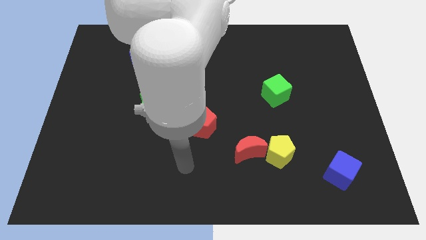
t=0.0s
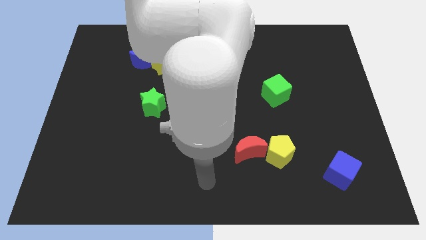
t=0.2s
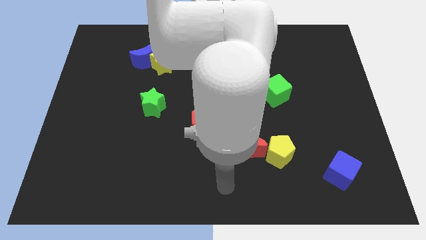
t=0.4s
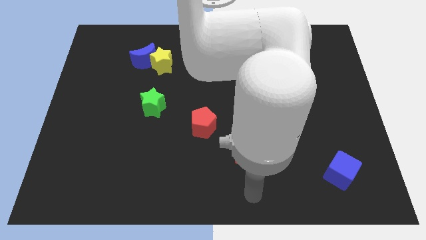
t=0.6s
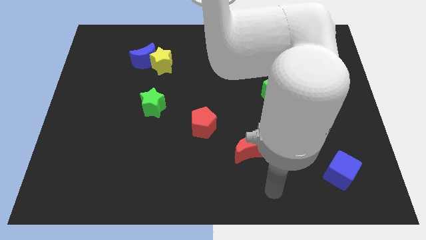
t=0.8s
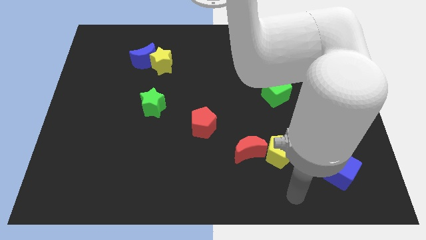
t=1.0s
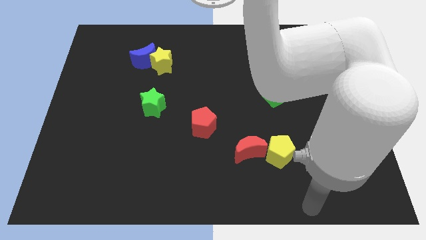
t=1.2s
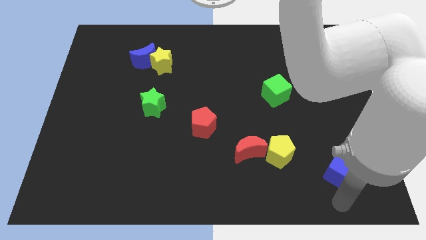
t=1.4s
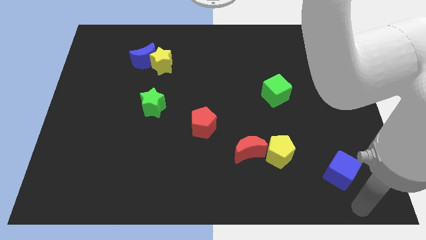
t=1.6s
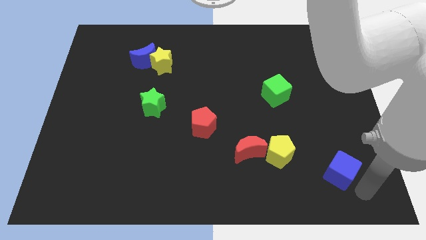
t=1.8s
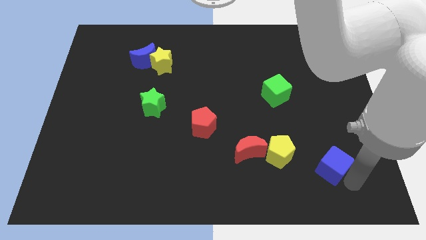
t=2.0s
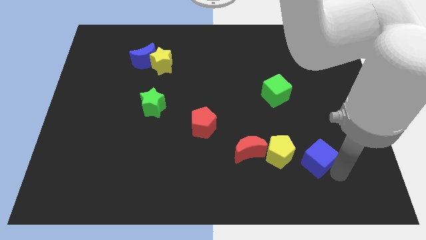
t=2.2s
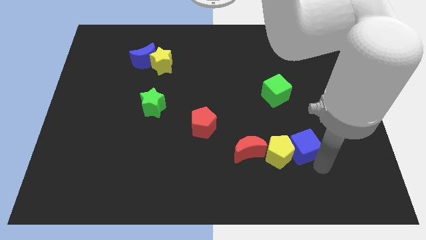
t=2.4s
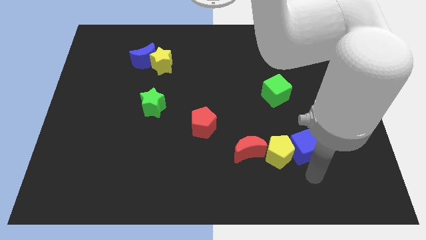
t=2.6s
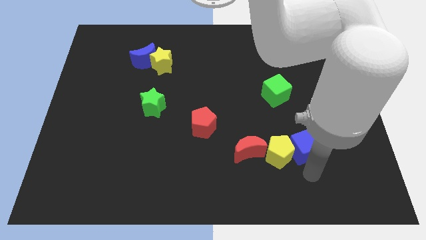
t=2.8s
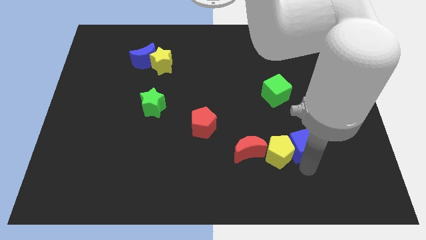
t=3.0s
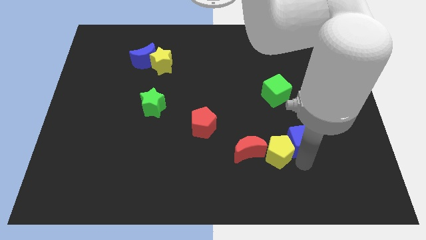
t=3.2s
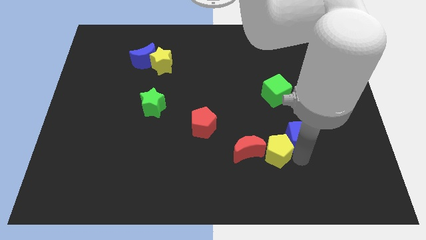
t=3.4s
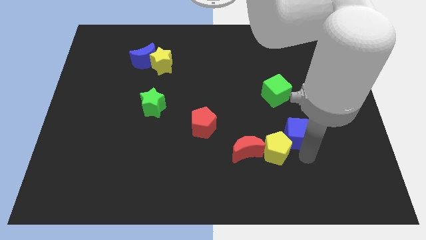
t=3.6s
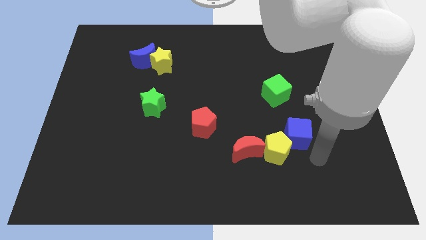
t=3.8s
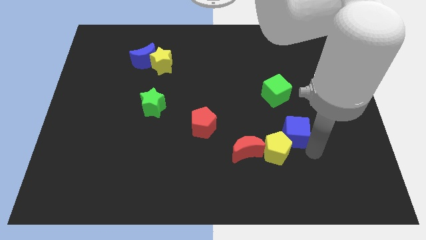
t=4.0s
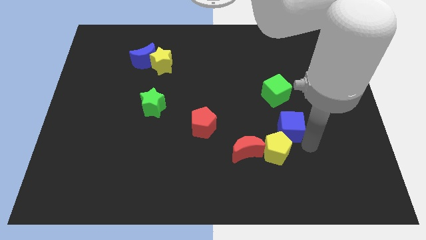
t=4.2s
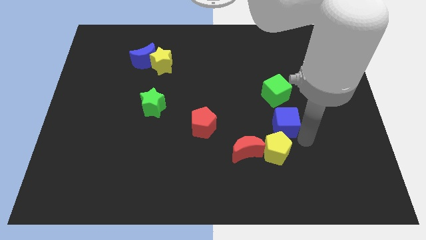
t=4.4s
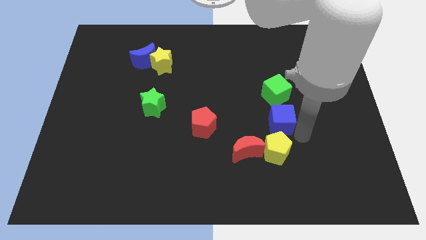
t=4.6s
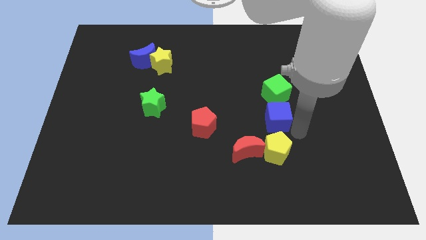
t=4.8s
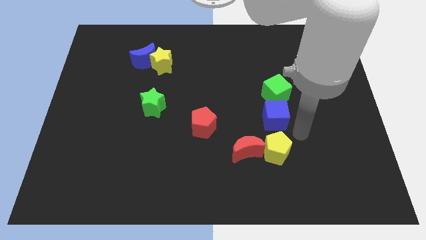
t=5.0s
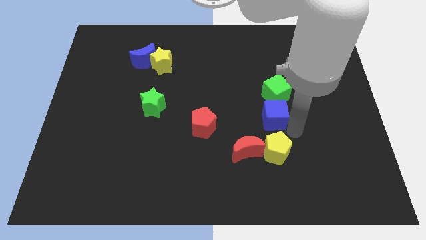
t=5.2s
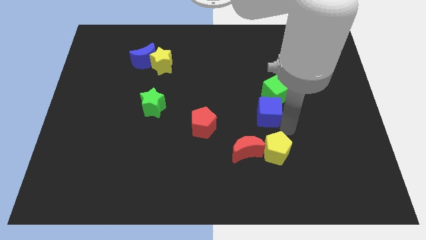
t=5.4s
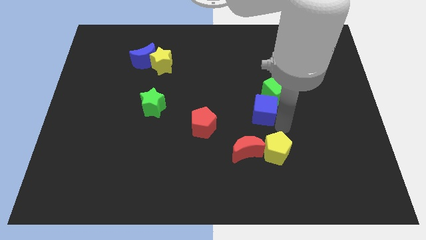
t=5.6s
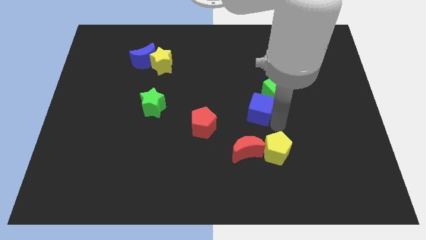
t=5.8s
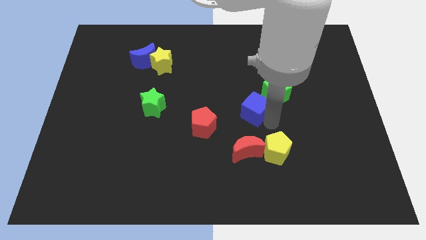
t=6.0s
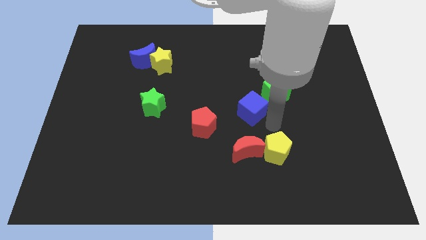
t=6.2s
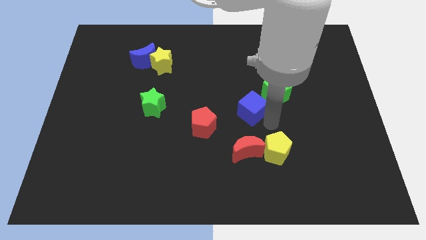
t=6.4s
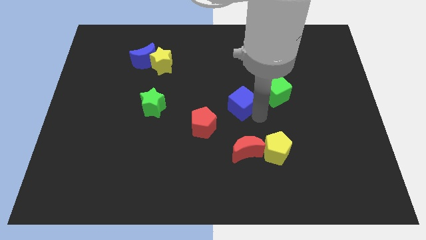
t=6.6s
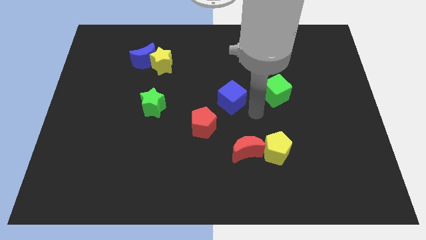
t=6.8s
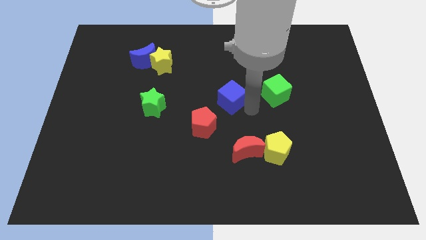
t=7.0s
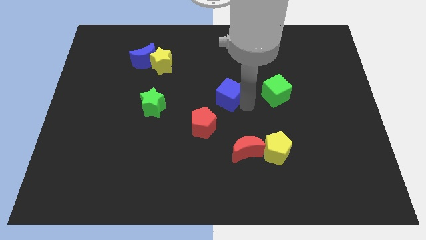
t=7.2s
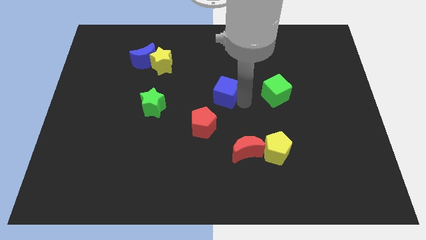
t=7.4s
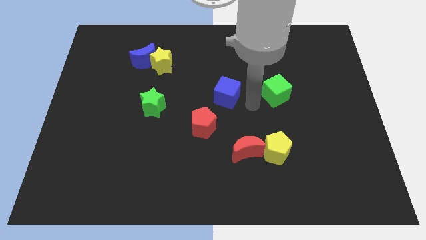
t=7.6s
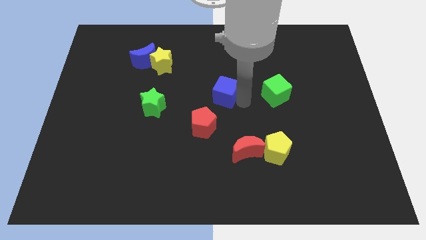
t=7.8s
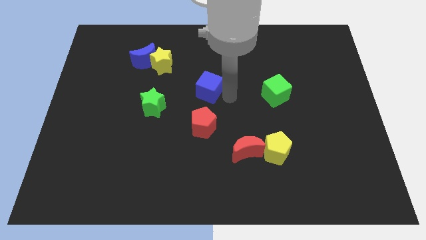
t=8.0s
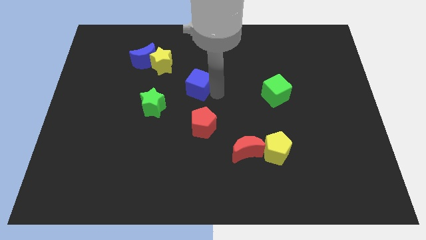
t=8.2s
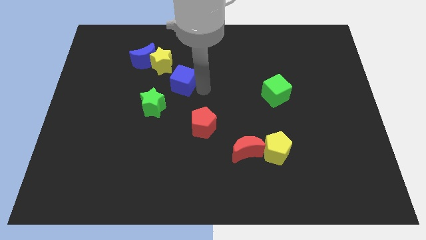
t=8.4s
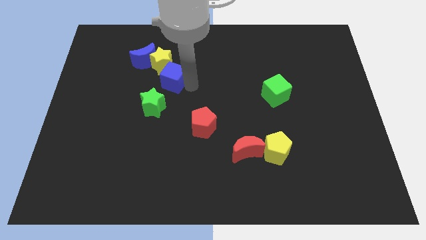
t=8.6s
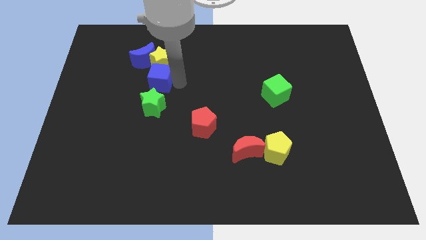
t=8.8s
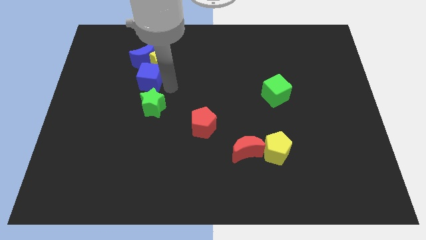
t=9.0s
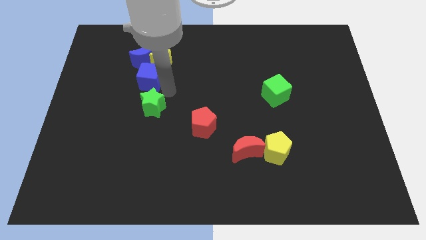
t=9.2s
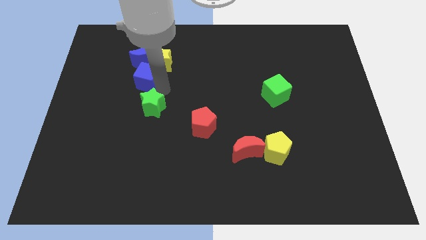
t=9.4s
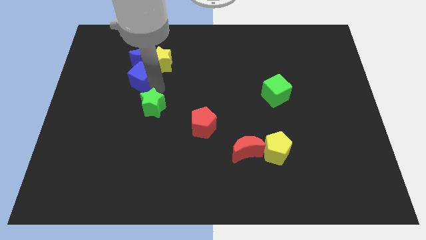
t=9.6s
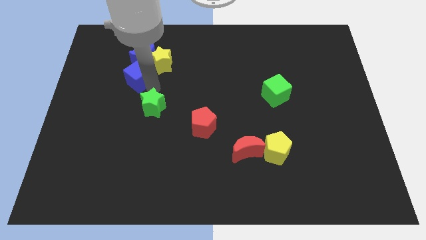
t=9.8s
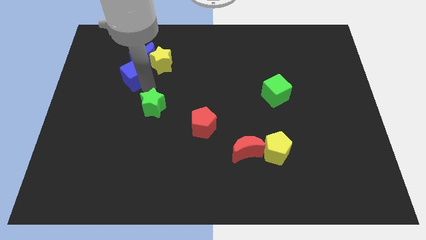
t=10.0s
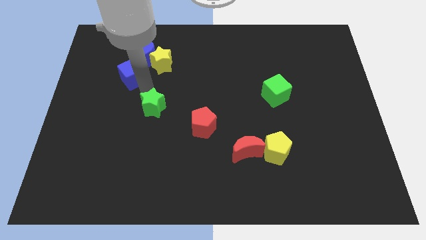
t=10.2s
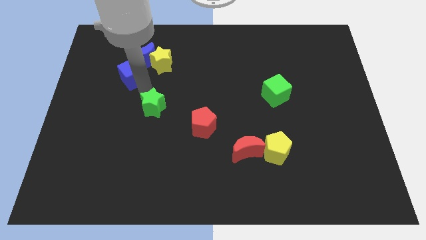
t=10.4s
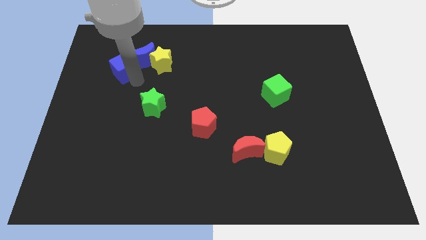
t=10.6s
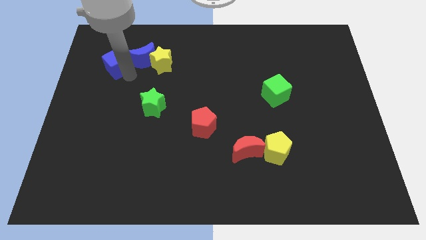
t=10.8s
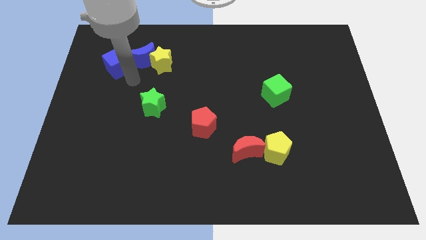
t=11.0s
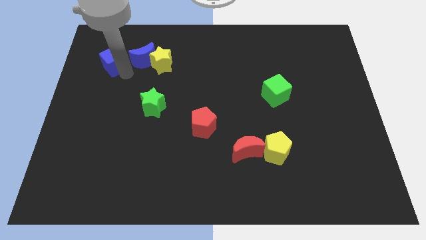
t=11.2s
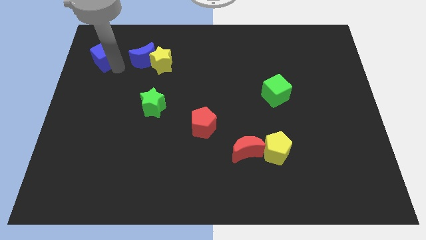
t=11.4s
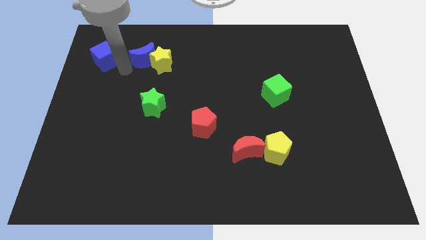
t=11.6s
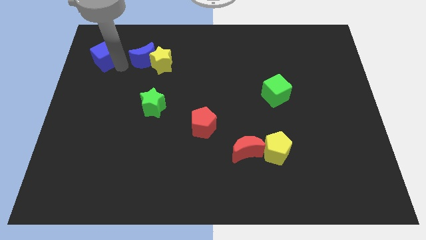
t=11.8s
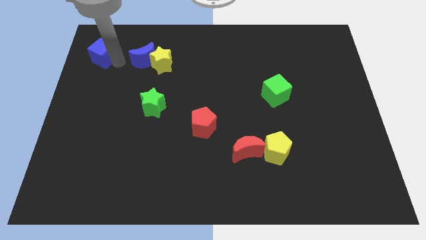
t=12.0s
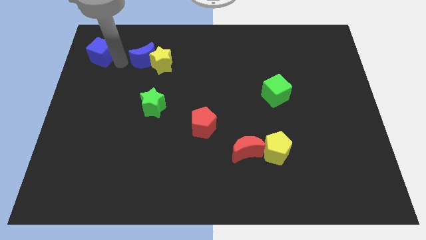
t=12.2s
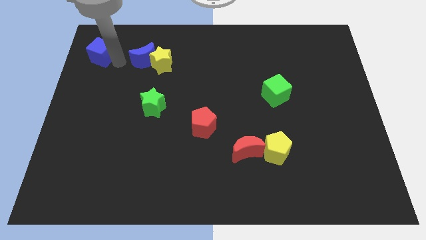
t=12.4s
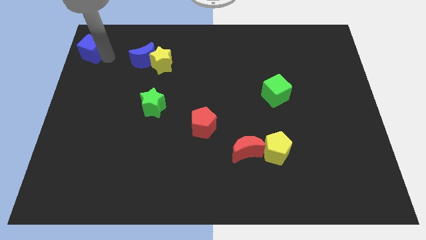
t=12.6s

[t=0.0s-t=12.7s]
move the blue cube to the top left of the board
